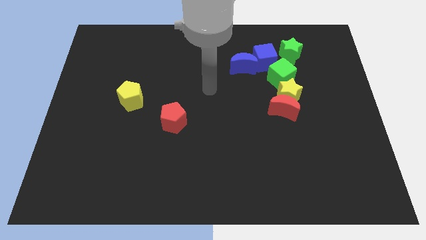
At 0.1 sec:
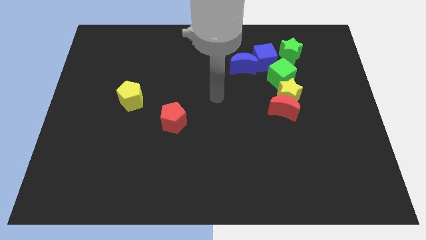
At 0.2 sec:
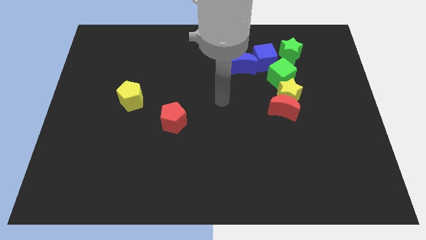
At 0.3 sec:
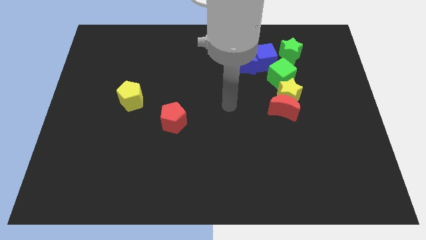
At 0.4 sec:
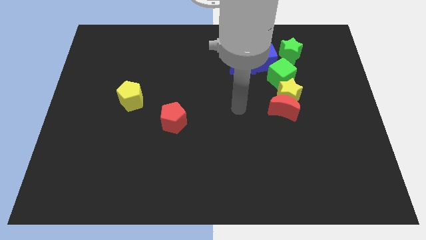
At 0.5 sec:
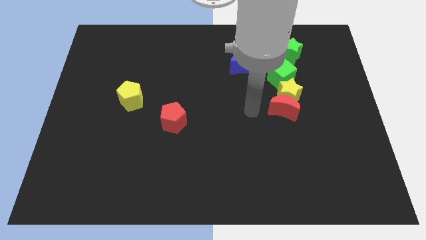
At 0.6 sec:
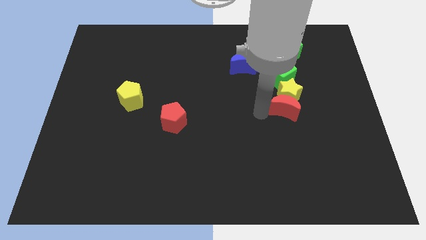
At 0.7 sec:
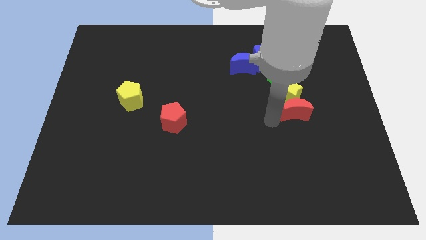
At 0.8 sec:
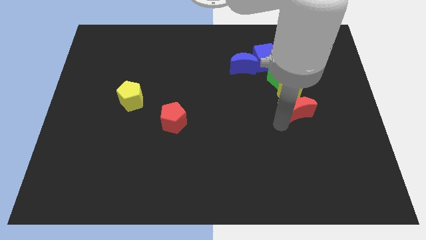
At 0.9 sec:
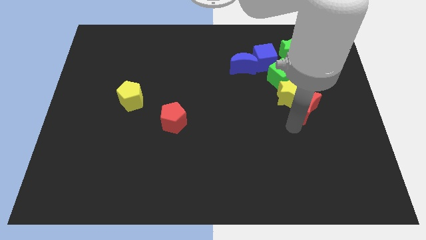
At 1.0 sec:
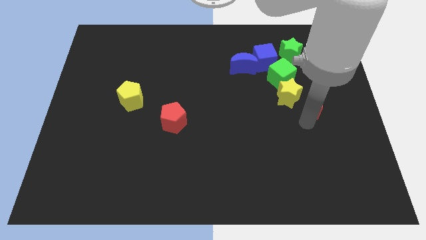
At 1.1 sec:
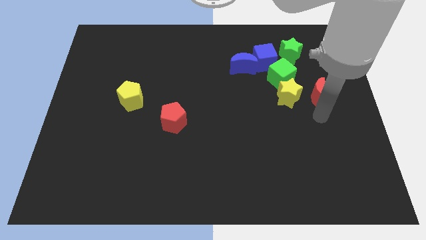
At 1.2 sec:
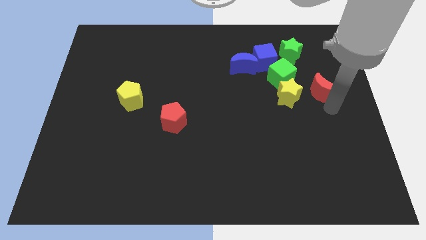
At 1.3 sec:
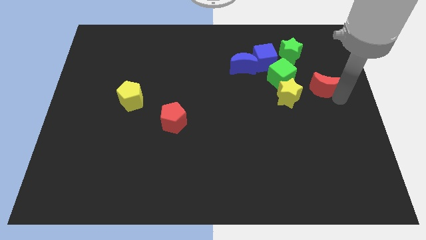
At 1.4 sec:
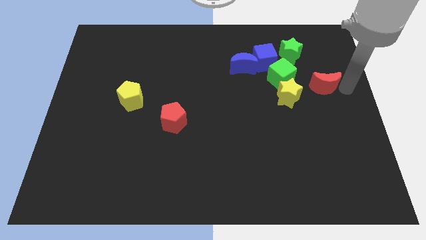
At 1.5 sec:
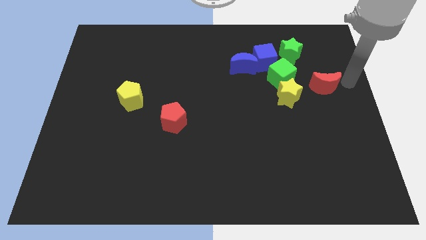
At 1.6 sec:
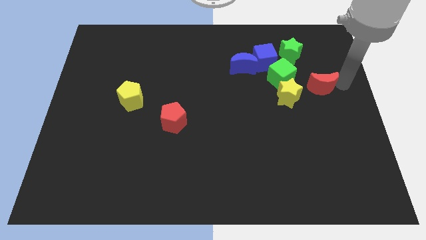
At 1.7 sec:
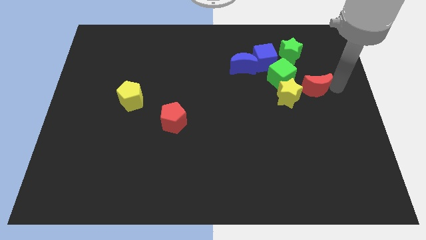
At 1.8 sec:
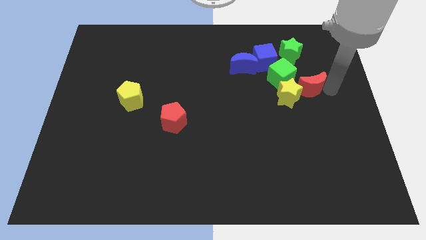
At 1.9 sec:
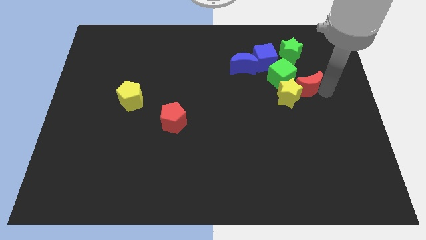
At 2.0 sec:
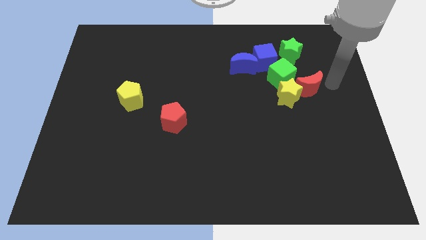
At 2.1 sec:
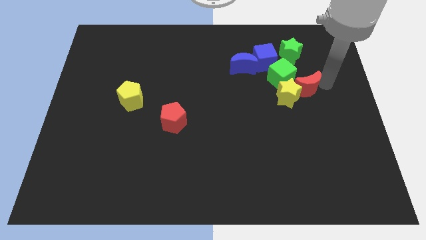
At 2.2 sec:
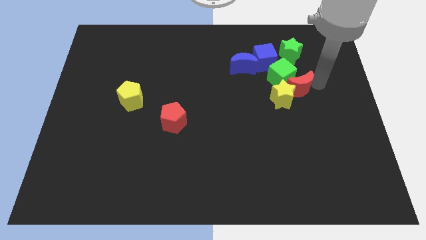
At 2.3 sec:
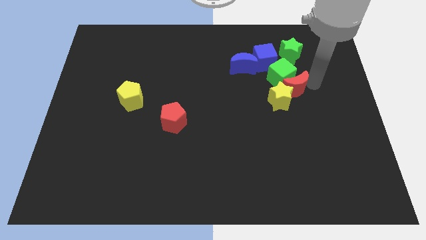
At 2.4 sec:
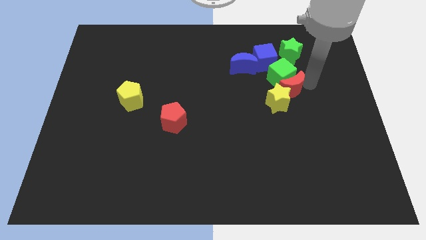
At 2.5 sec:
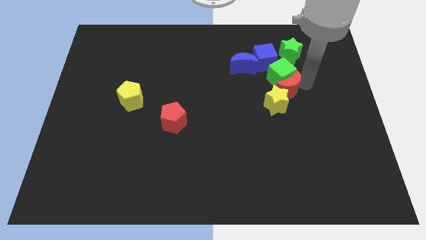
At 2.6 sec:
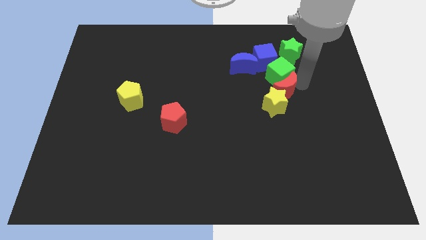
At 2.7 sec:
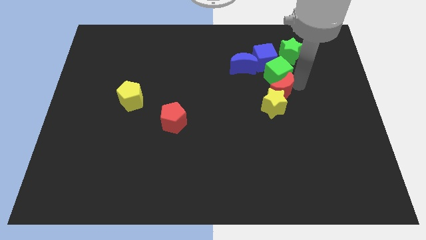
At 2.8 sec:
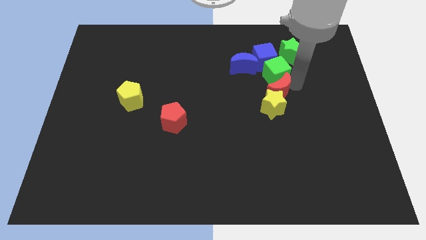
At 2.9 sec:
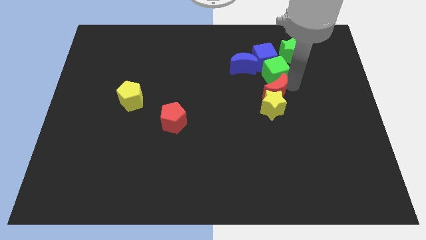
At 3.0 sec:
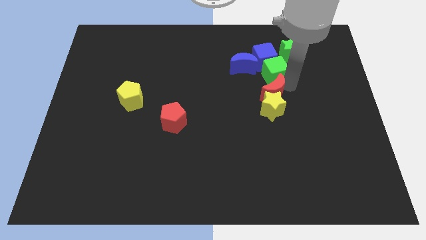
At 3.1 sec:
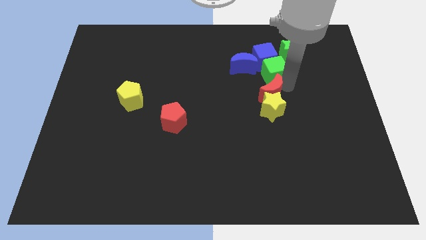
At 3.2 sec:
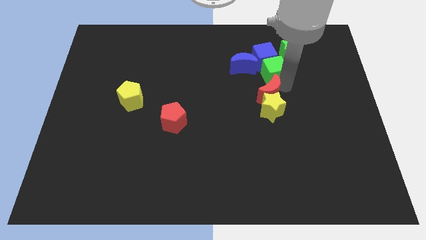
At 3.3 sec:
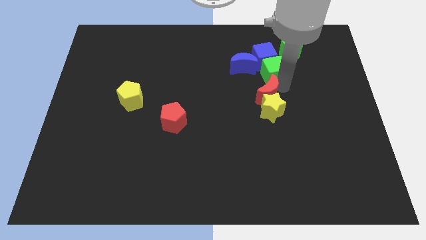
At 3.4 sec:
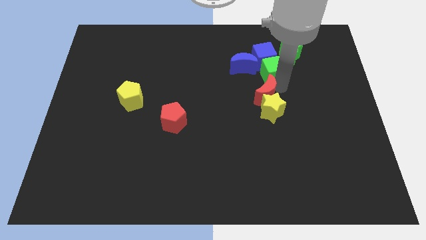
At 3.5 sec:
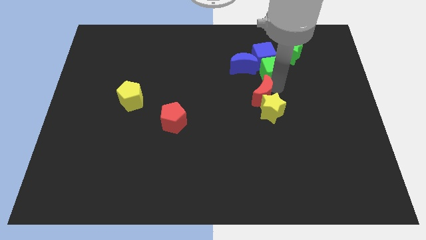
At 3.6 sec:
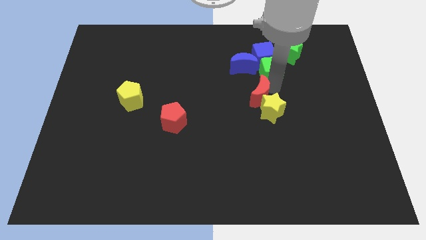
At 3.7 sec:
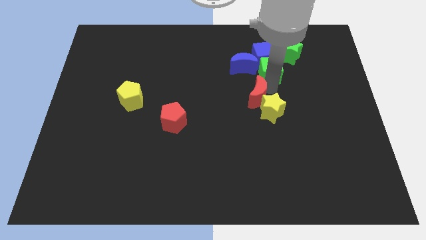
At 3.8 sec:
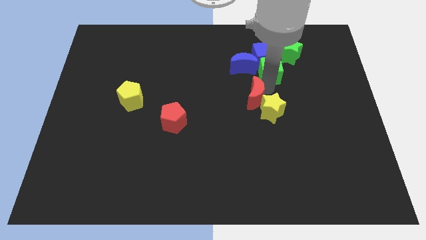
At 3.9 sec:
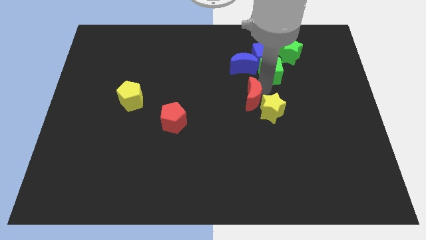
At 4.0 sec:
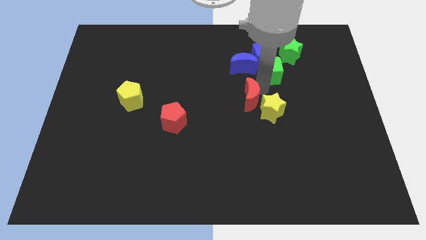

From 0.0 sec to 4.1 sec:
move the red moon a little to the left

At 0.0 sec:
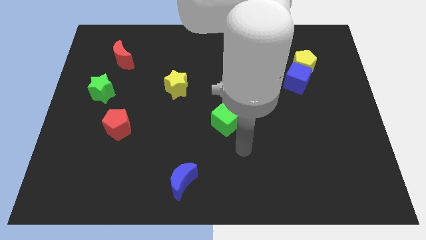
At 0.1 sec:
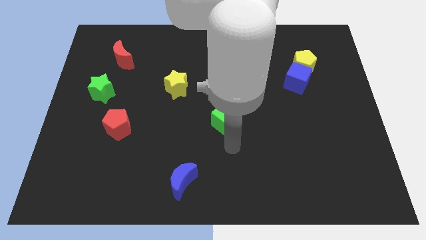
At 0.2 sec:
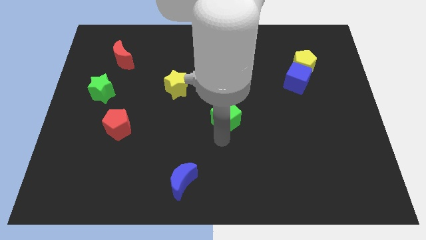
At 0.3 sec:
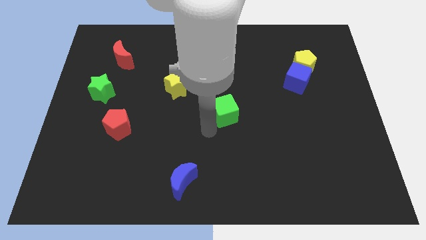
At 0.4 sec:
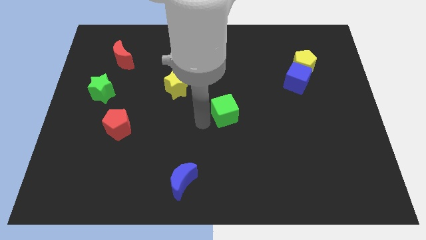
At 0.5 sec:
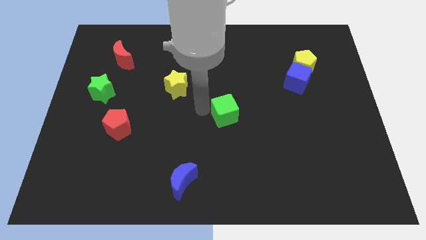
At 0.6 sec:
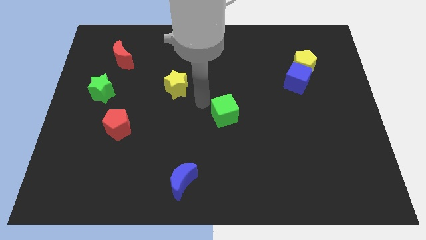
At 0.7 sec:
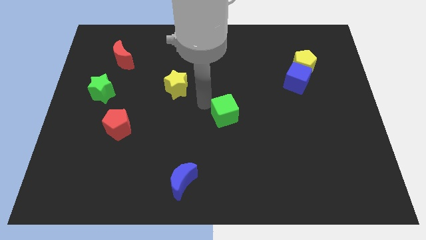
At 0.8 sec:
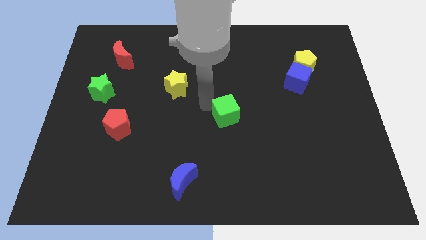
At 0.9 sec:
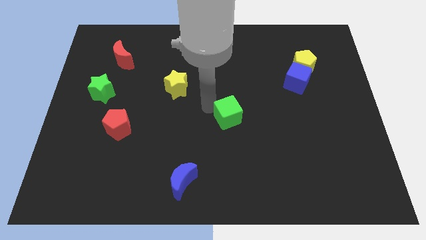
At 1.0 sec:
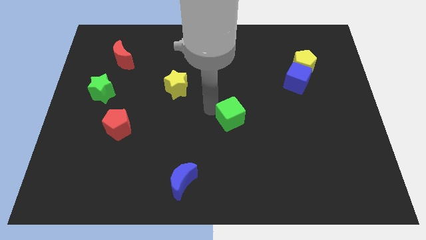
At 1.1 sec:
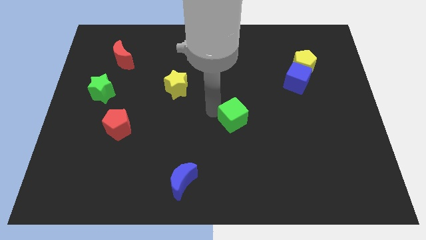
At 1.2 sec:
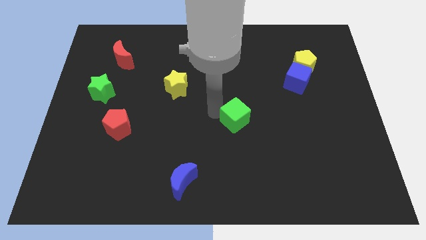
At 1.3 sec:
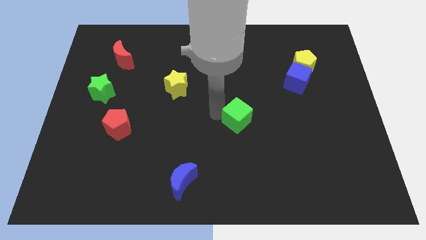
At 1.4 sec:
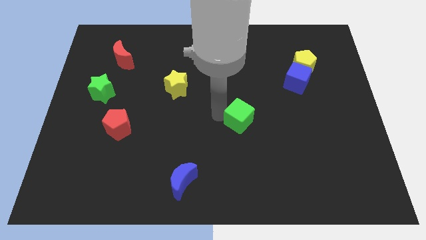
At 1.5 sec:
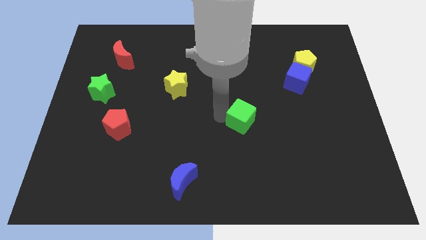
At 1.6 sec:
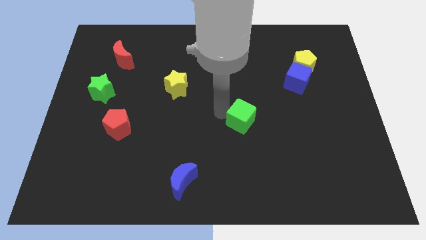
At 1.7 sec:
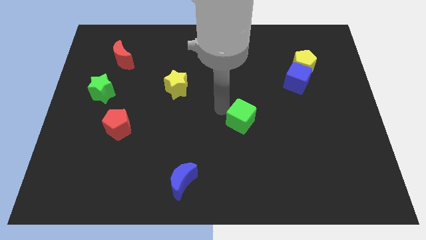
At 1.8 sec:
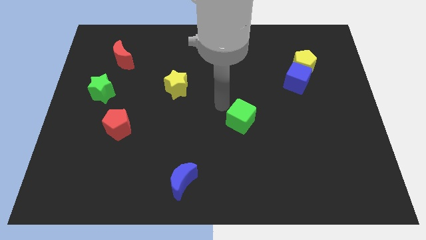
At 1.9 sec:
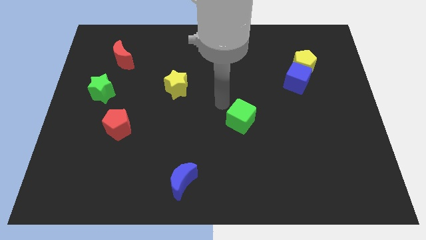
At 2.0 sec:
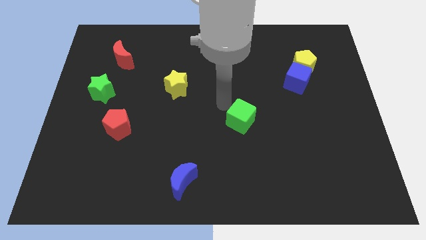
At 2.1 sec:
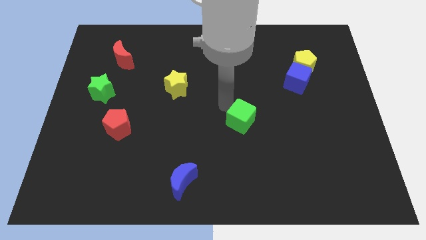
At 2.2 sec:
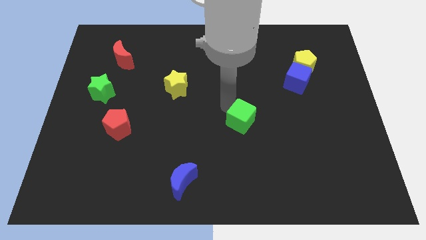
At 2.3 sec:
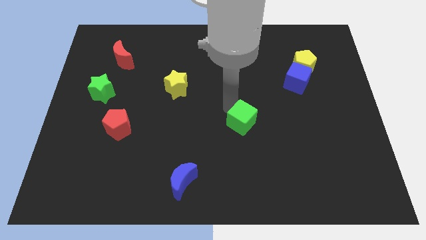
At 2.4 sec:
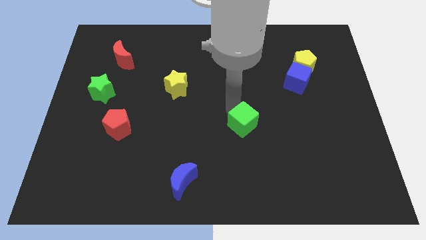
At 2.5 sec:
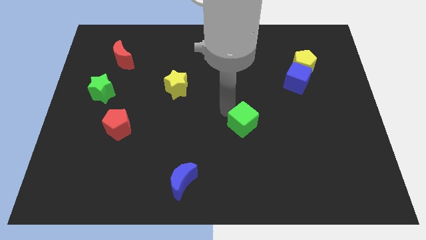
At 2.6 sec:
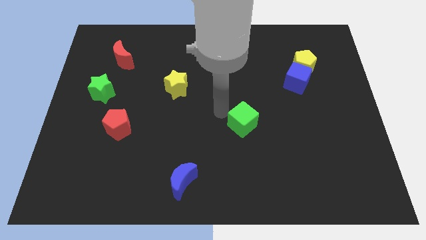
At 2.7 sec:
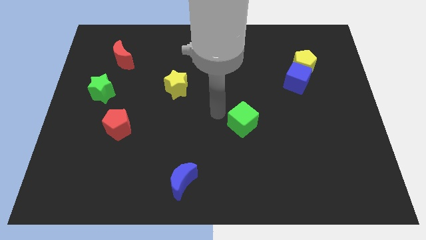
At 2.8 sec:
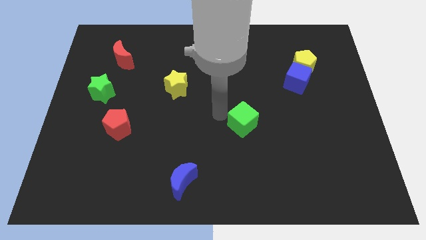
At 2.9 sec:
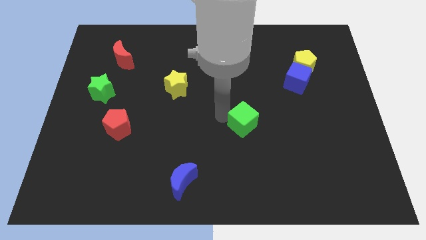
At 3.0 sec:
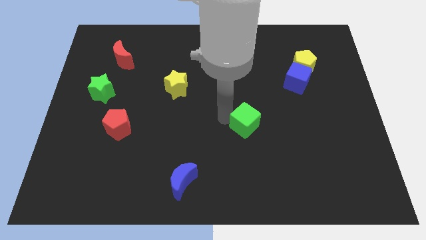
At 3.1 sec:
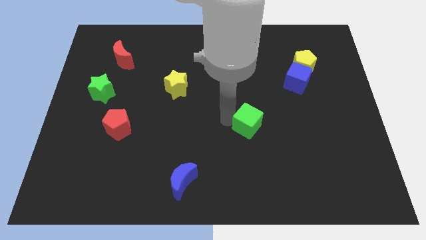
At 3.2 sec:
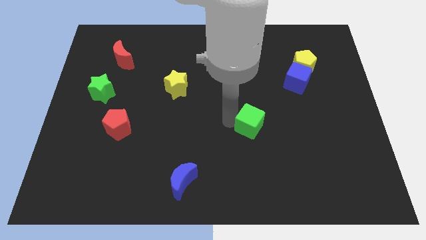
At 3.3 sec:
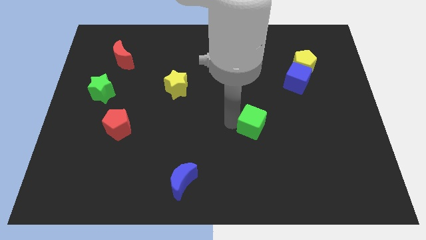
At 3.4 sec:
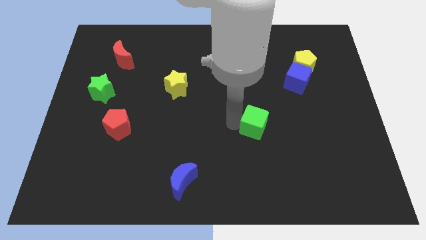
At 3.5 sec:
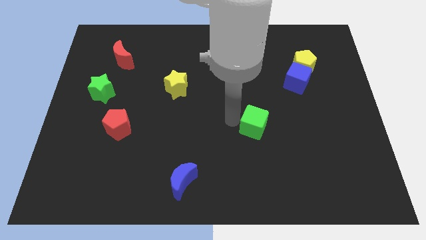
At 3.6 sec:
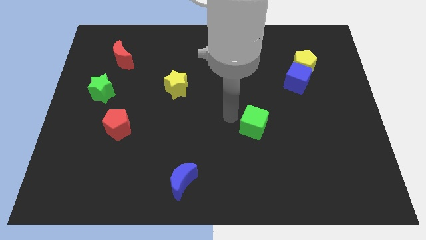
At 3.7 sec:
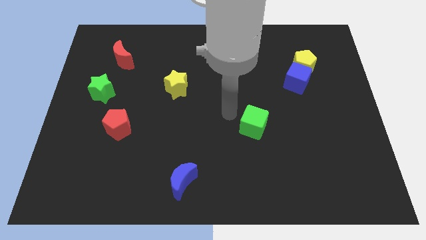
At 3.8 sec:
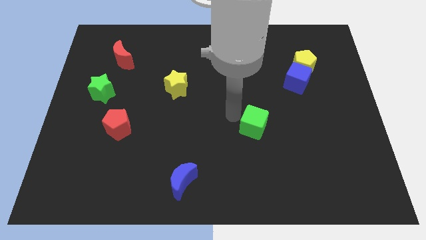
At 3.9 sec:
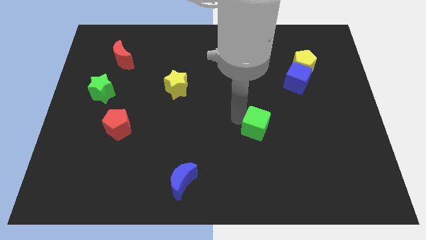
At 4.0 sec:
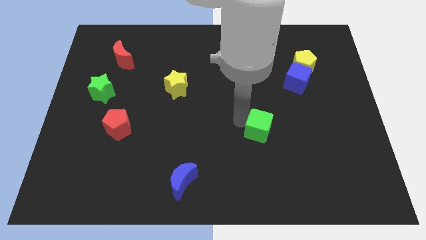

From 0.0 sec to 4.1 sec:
slide the green cube slightly to the right
